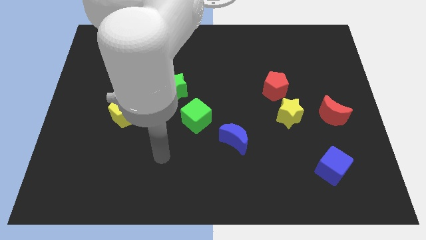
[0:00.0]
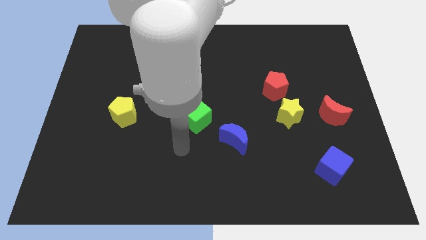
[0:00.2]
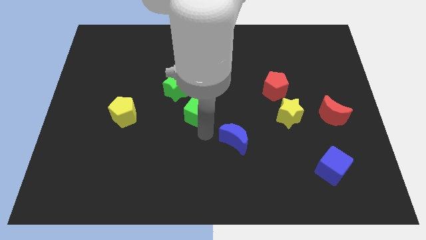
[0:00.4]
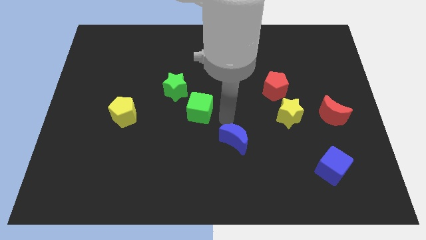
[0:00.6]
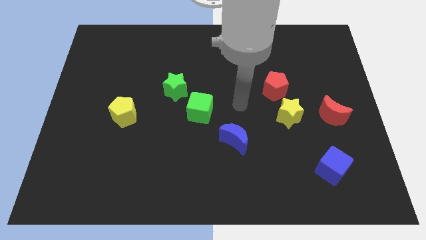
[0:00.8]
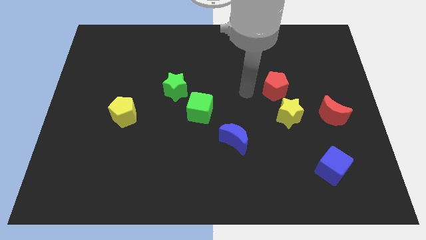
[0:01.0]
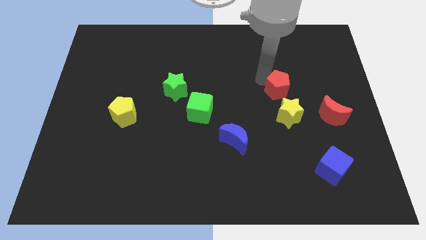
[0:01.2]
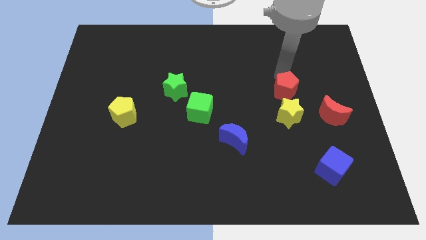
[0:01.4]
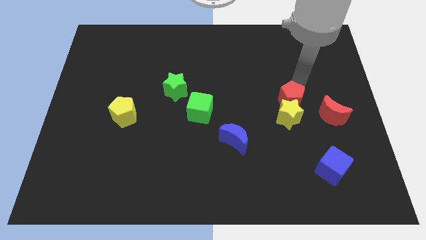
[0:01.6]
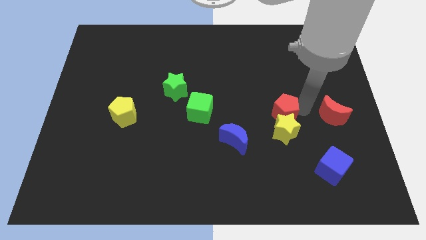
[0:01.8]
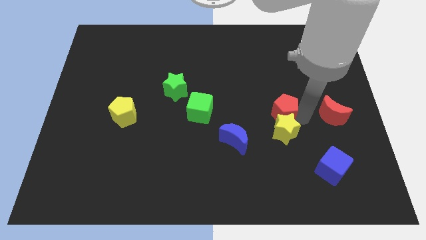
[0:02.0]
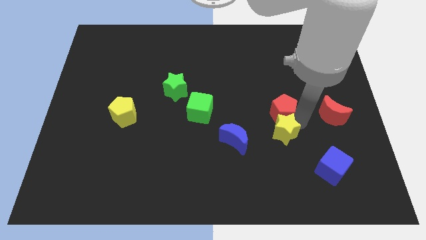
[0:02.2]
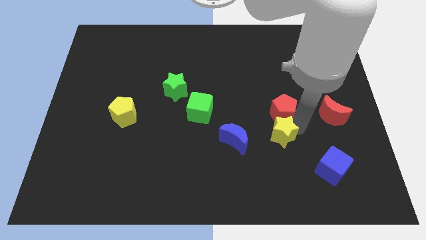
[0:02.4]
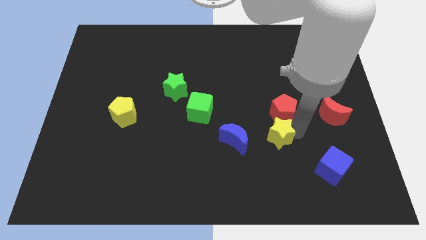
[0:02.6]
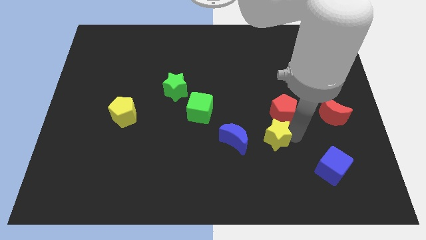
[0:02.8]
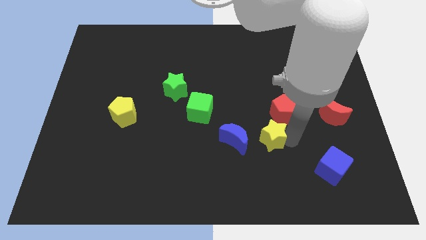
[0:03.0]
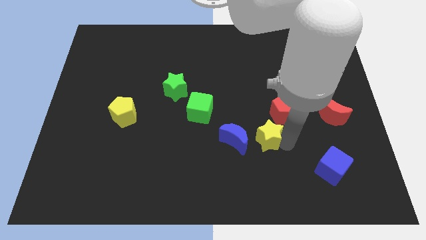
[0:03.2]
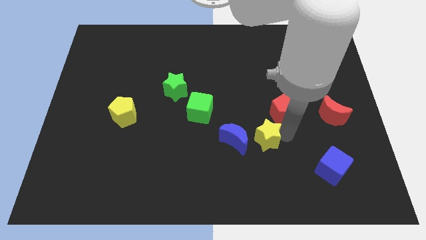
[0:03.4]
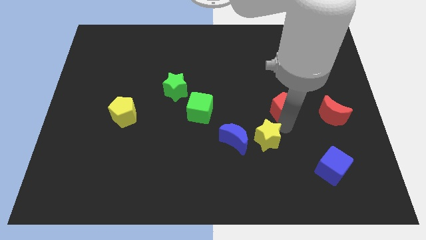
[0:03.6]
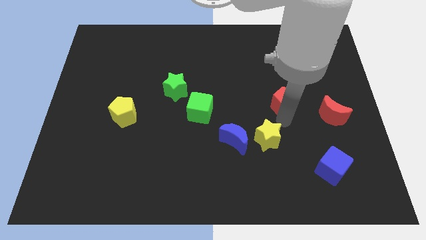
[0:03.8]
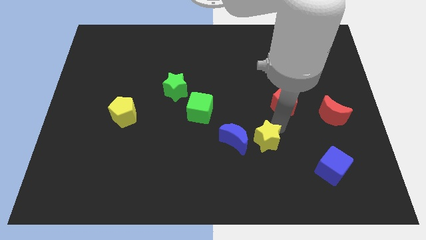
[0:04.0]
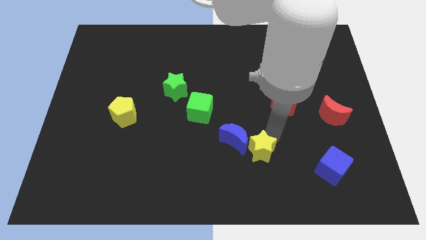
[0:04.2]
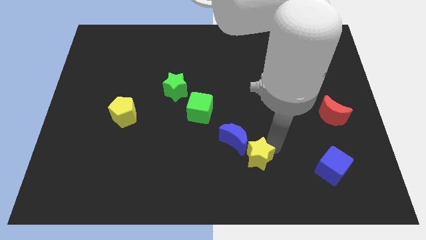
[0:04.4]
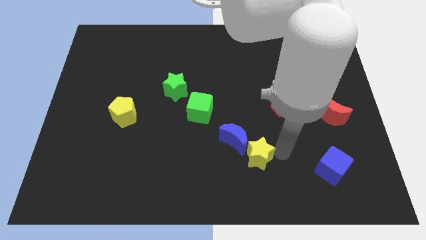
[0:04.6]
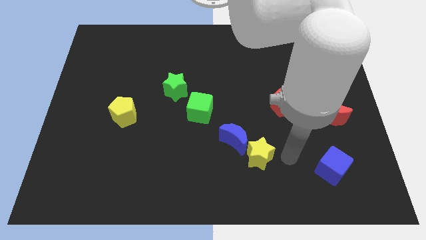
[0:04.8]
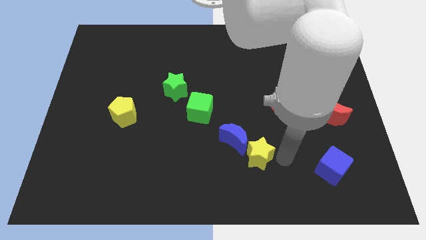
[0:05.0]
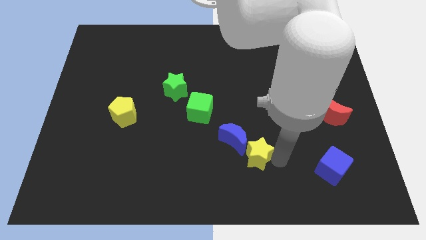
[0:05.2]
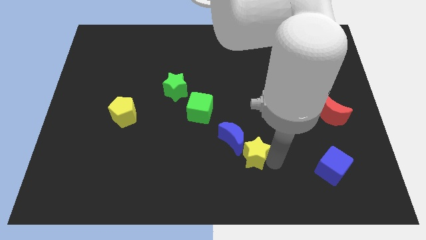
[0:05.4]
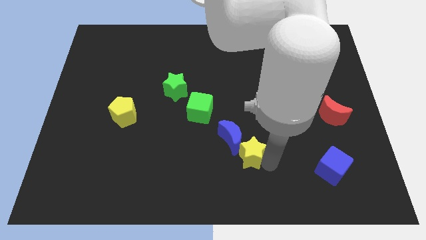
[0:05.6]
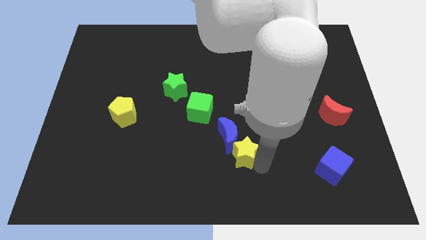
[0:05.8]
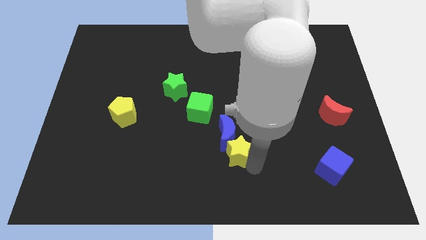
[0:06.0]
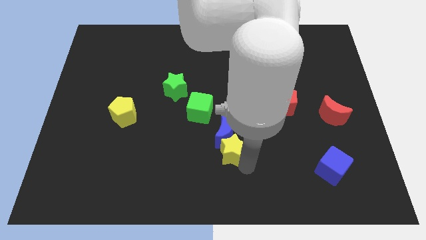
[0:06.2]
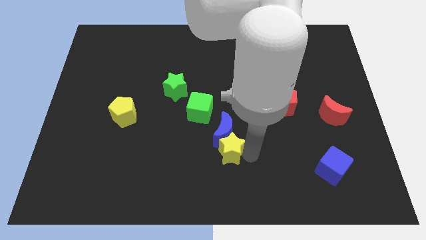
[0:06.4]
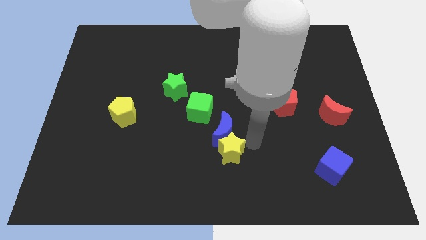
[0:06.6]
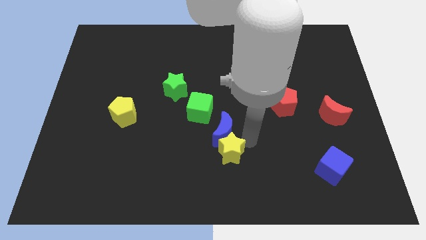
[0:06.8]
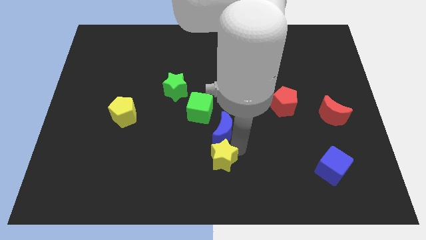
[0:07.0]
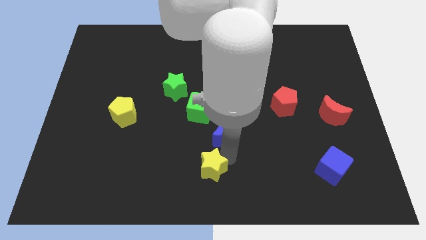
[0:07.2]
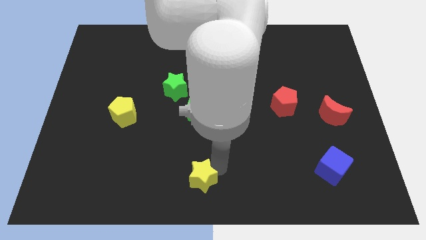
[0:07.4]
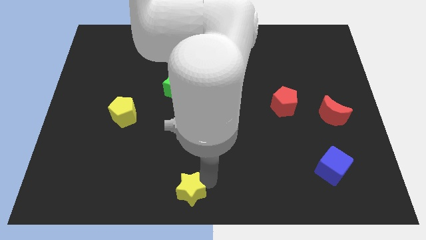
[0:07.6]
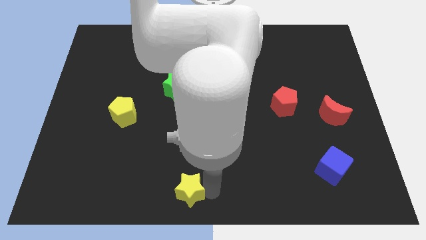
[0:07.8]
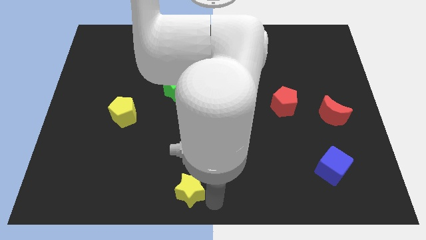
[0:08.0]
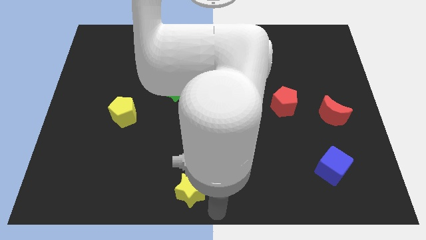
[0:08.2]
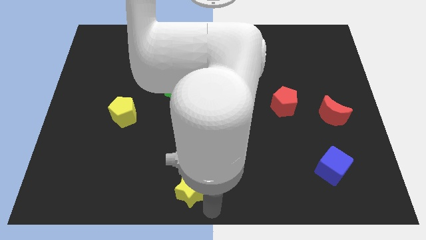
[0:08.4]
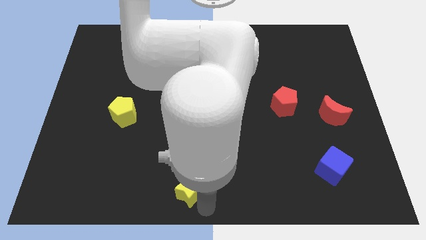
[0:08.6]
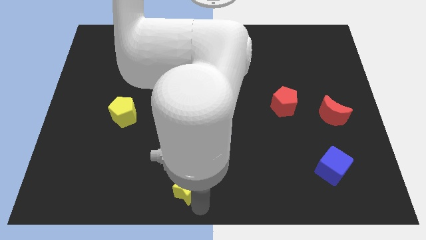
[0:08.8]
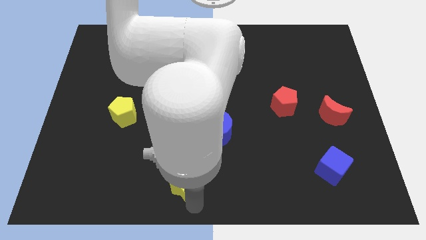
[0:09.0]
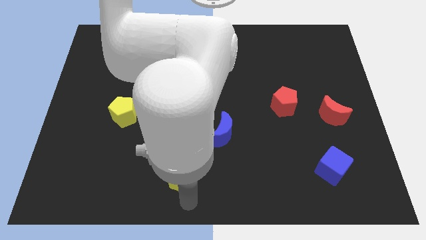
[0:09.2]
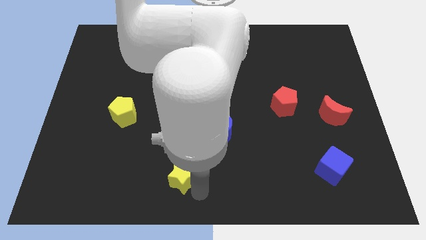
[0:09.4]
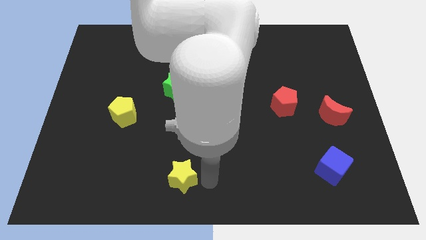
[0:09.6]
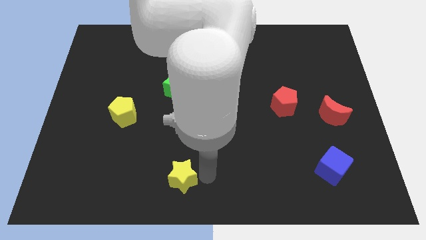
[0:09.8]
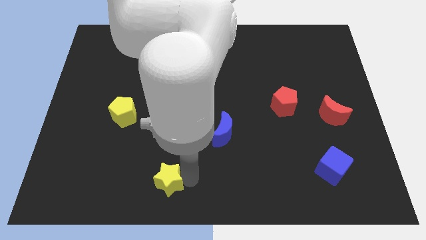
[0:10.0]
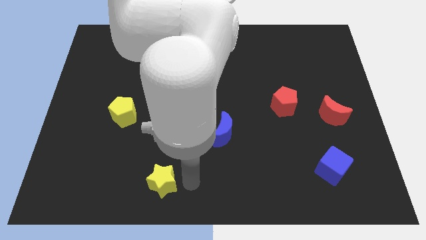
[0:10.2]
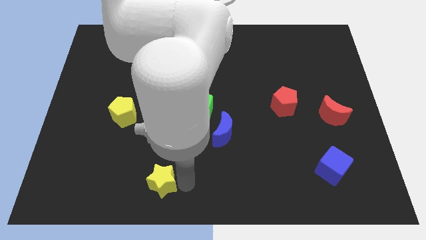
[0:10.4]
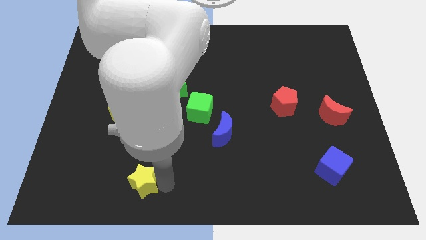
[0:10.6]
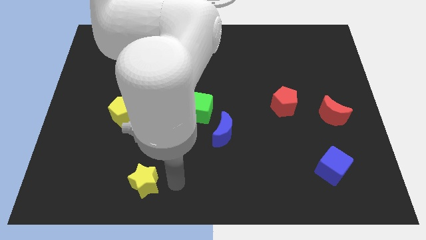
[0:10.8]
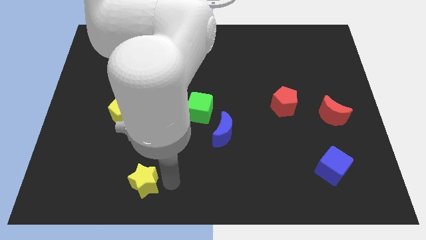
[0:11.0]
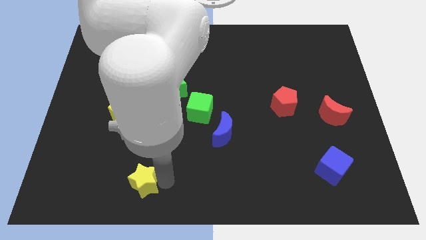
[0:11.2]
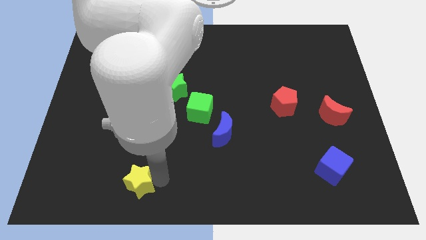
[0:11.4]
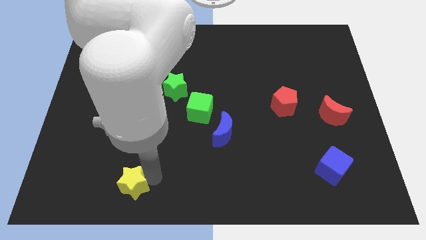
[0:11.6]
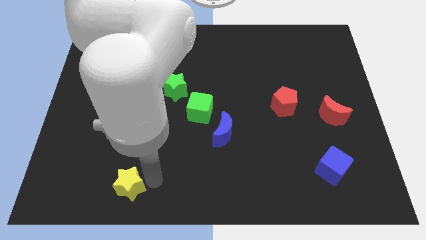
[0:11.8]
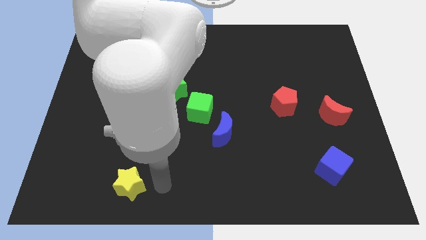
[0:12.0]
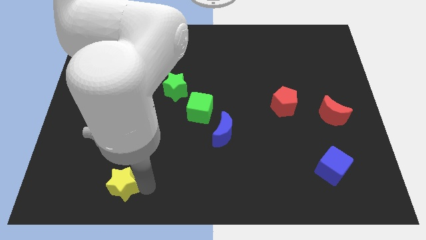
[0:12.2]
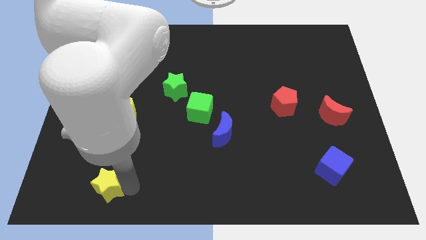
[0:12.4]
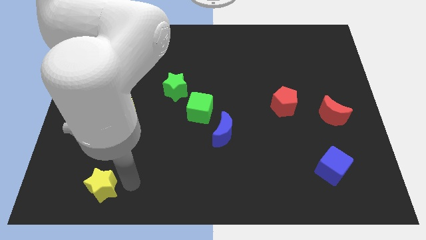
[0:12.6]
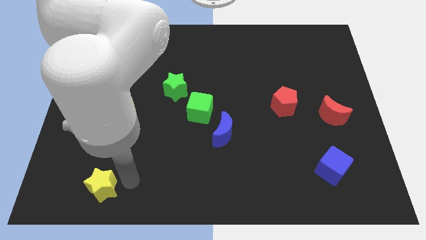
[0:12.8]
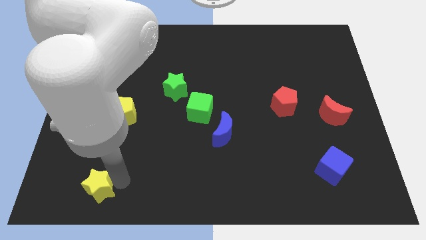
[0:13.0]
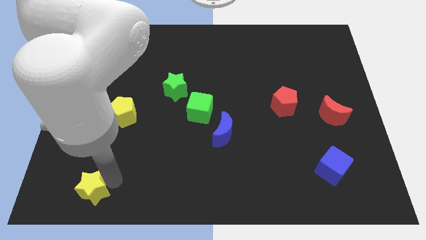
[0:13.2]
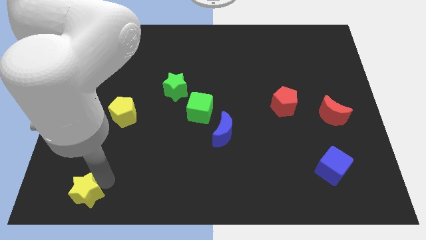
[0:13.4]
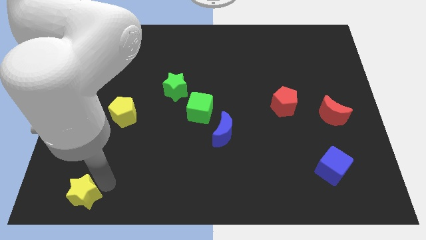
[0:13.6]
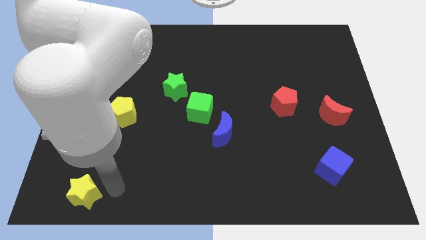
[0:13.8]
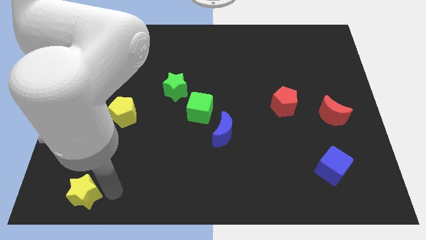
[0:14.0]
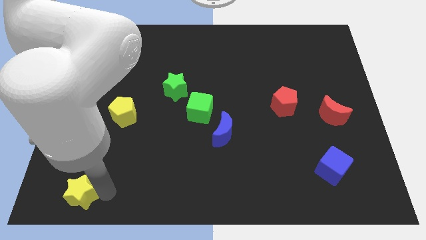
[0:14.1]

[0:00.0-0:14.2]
slide the yellow star to the bottom left corner
